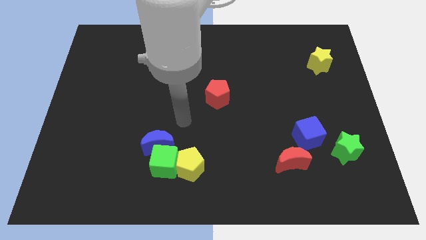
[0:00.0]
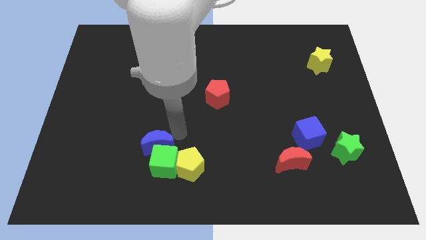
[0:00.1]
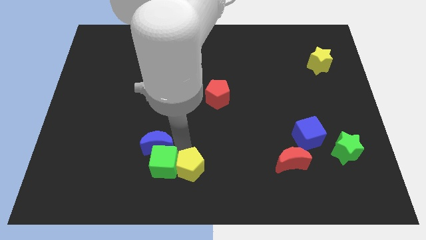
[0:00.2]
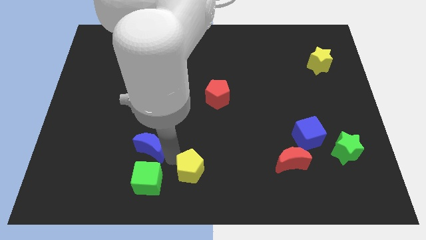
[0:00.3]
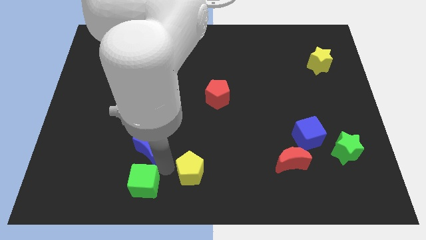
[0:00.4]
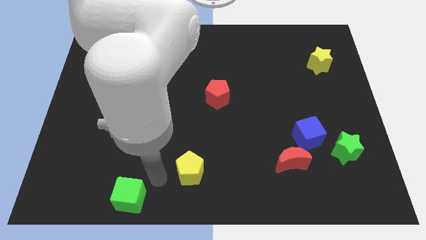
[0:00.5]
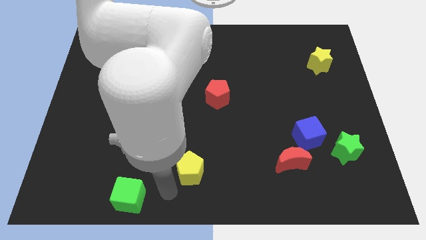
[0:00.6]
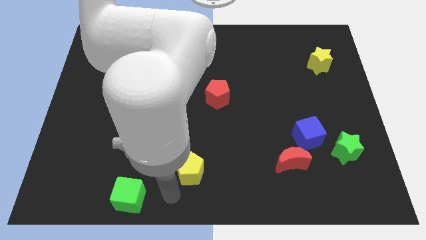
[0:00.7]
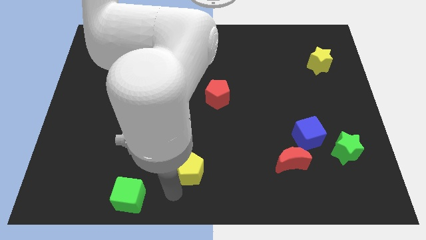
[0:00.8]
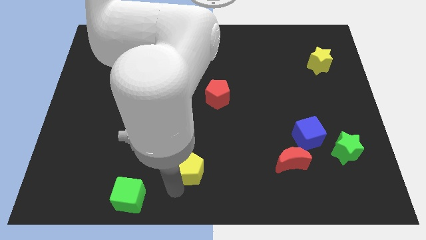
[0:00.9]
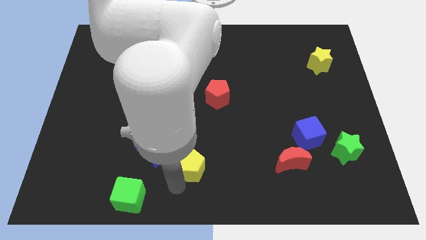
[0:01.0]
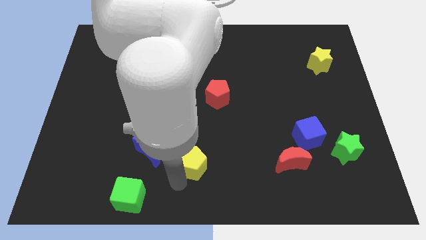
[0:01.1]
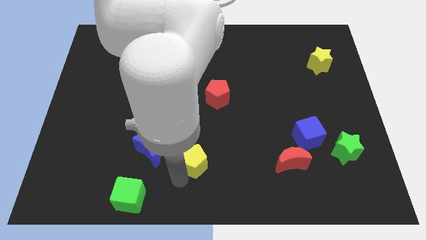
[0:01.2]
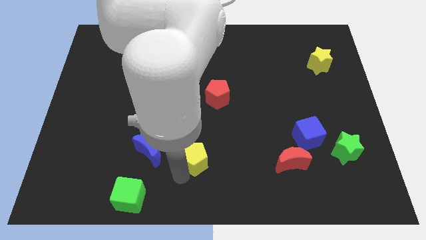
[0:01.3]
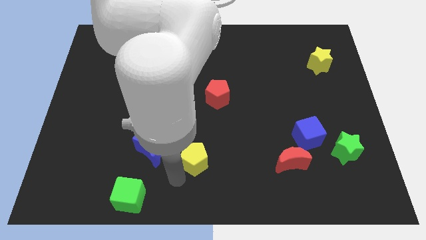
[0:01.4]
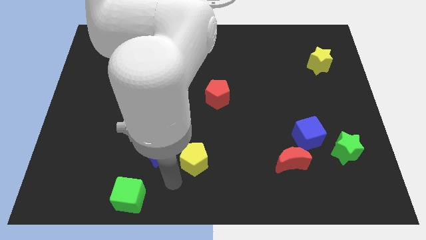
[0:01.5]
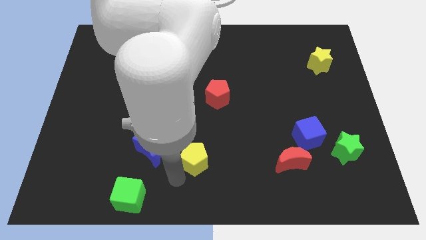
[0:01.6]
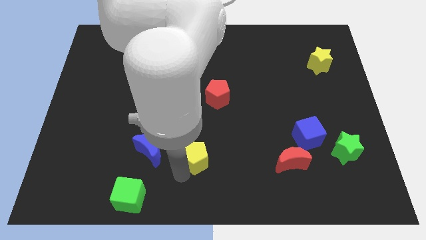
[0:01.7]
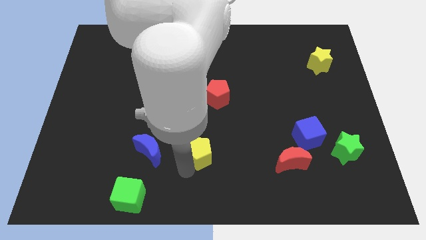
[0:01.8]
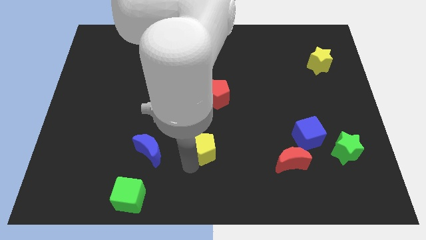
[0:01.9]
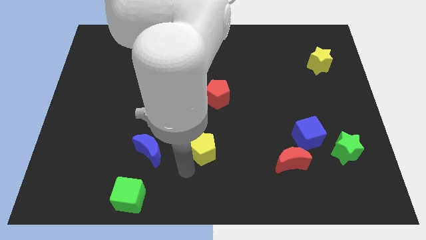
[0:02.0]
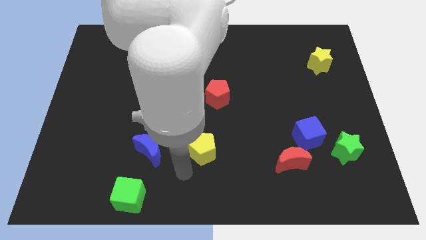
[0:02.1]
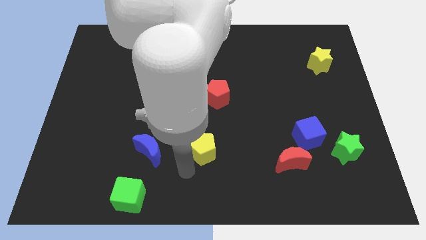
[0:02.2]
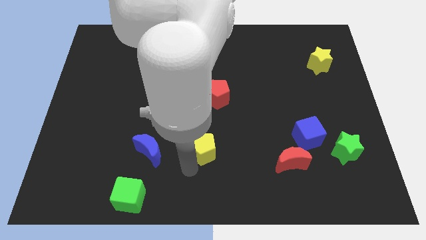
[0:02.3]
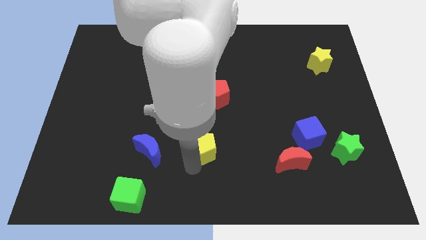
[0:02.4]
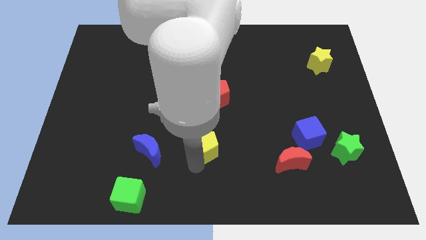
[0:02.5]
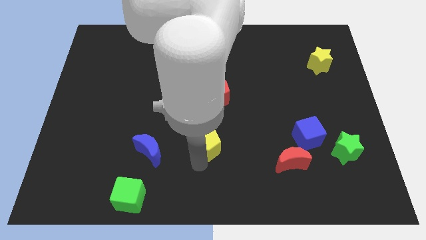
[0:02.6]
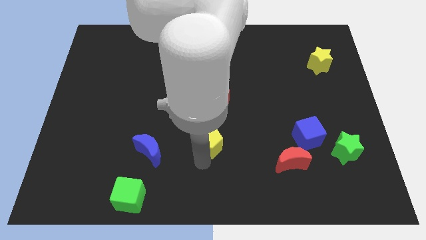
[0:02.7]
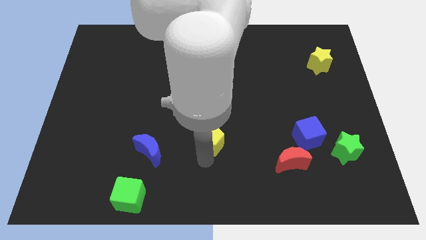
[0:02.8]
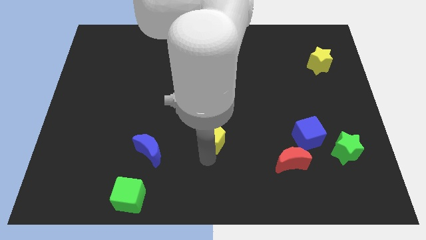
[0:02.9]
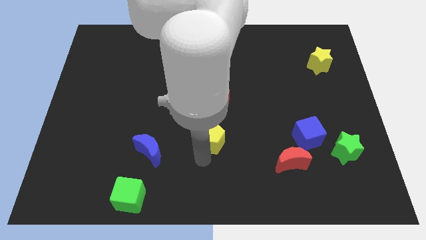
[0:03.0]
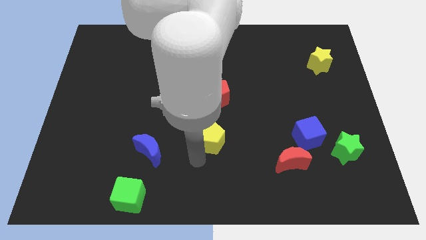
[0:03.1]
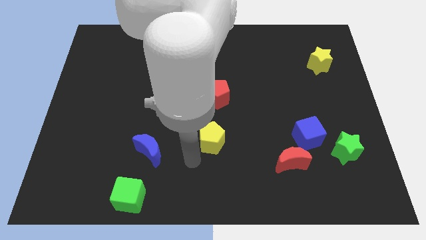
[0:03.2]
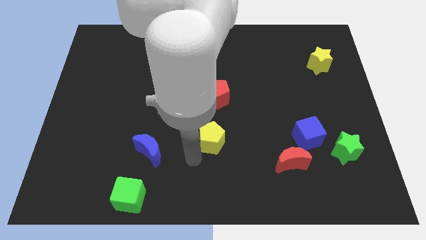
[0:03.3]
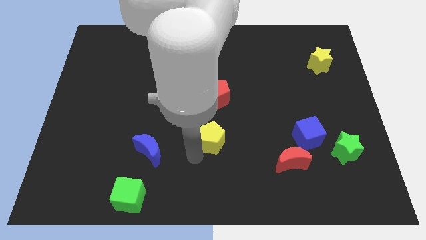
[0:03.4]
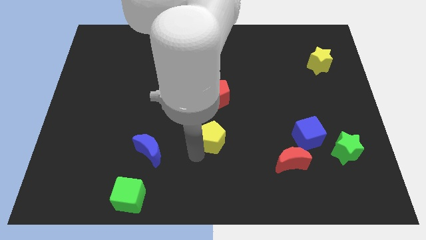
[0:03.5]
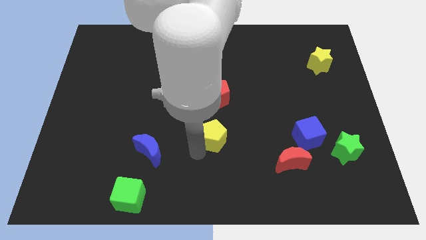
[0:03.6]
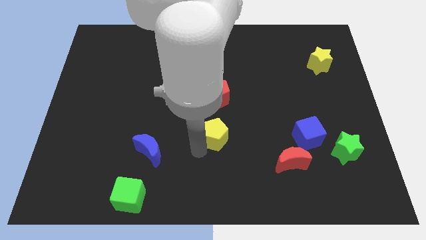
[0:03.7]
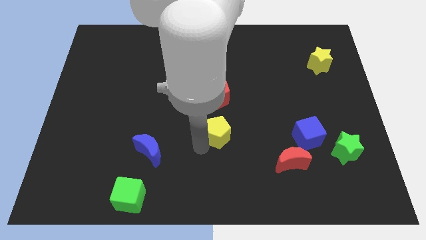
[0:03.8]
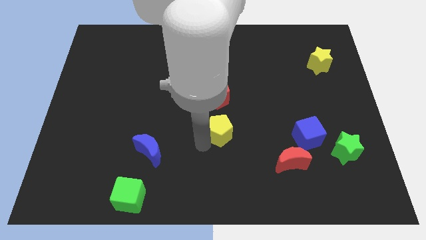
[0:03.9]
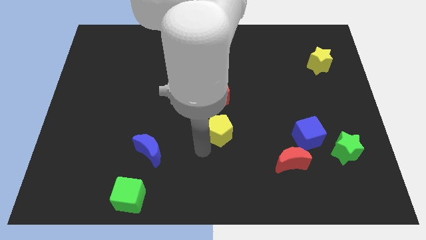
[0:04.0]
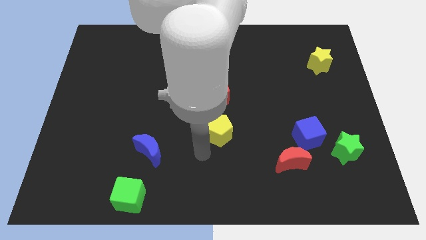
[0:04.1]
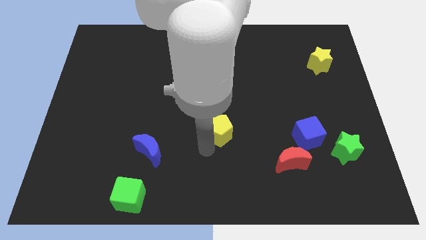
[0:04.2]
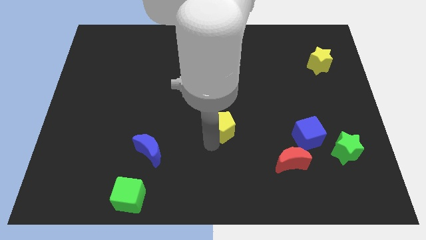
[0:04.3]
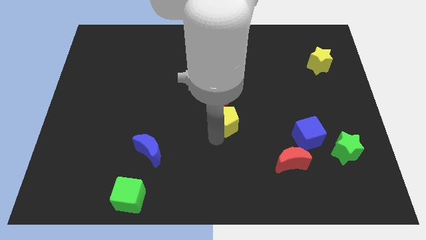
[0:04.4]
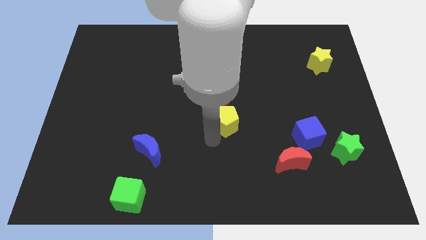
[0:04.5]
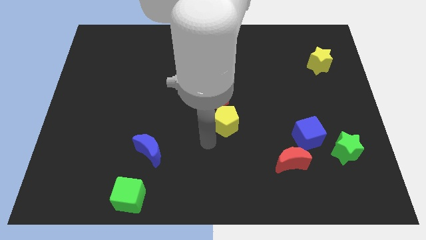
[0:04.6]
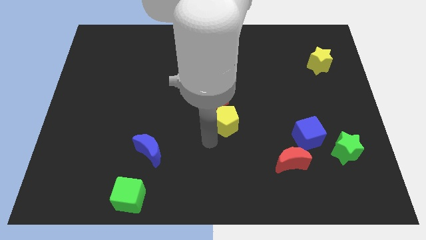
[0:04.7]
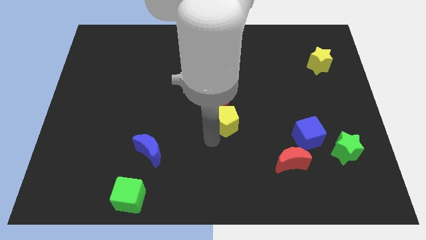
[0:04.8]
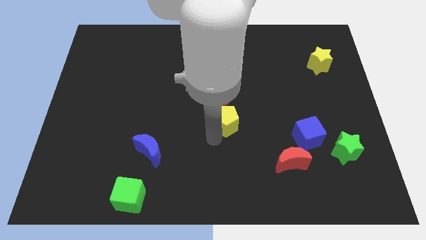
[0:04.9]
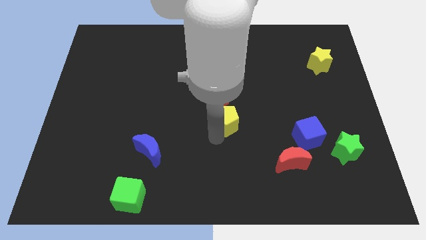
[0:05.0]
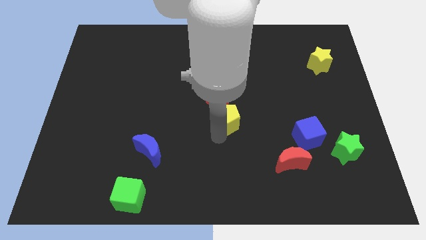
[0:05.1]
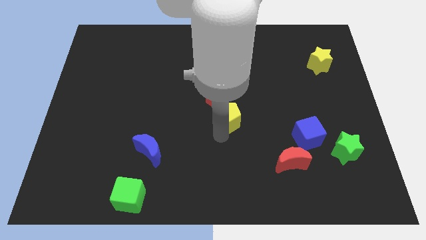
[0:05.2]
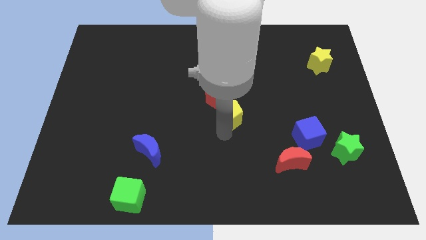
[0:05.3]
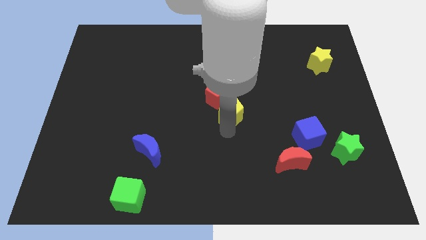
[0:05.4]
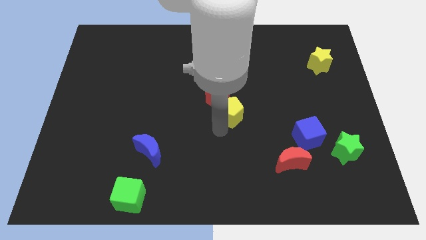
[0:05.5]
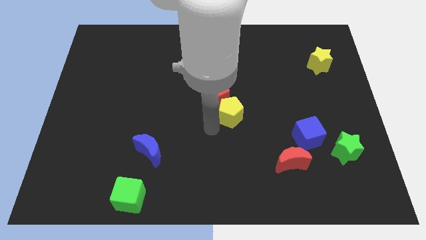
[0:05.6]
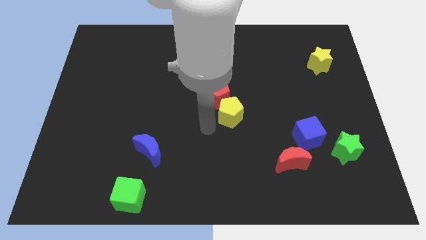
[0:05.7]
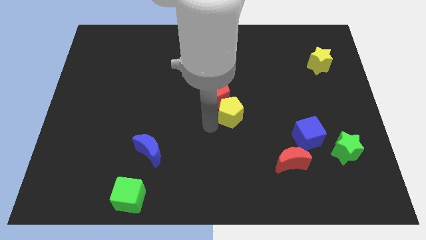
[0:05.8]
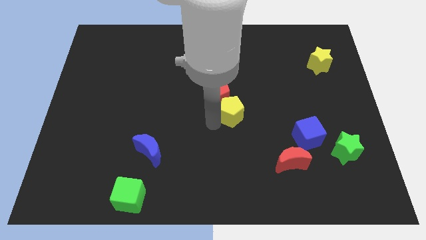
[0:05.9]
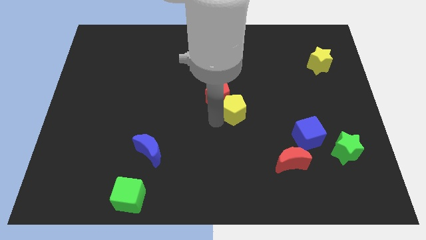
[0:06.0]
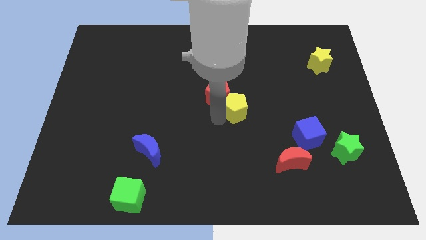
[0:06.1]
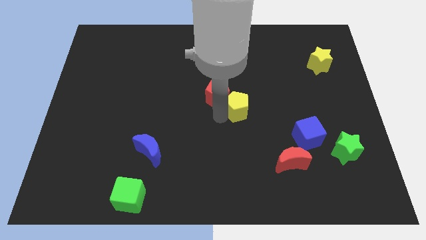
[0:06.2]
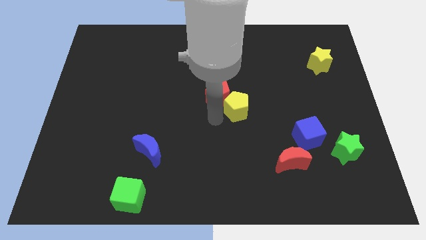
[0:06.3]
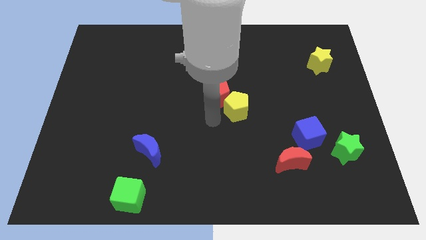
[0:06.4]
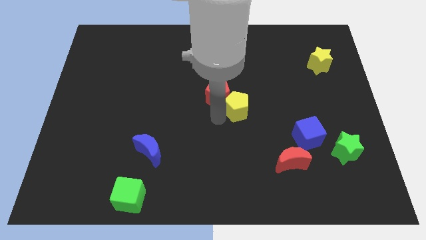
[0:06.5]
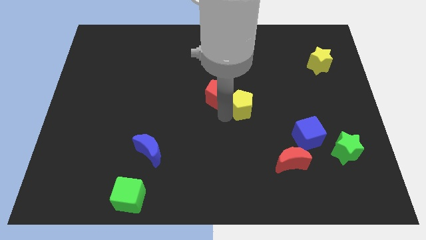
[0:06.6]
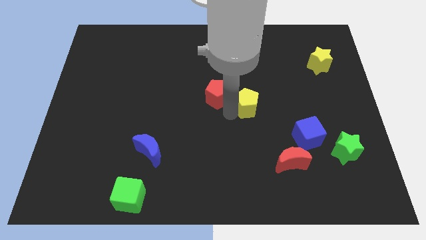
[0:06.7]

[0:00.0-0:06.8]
push the yellow pentagon upwards and to the right diagonally

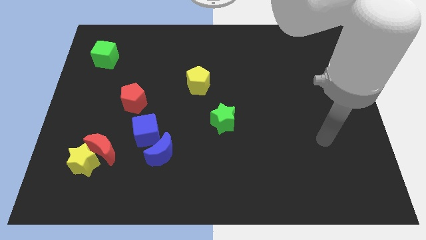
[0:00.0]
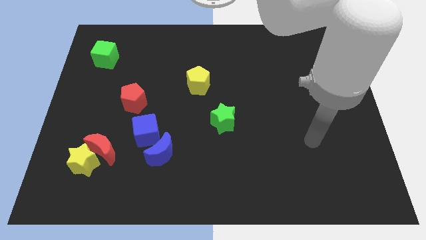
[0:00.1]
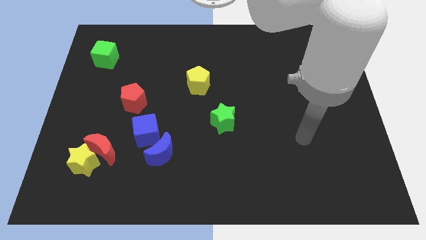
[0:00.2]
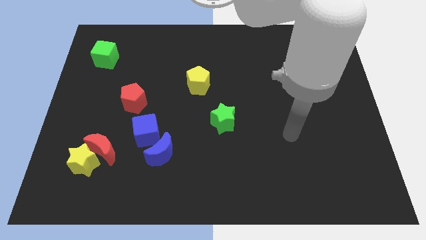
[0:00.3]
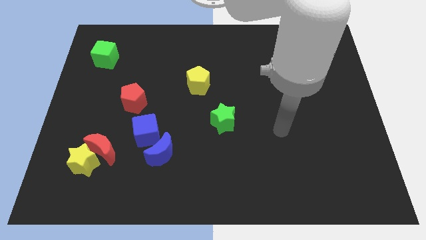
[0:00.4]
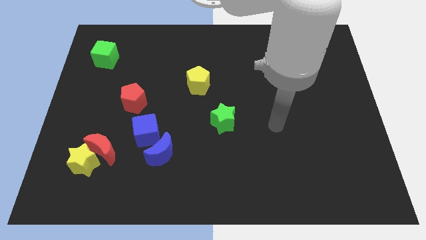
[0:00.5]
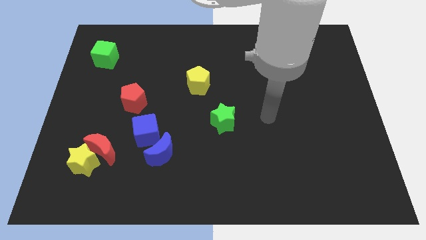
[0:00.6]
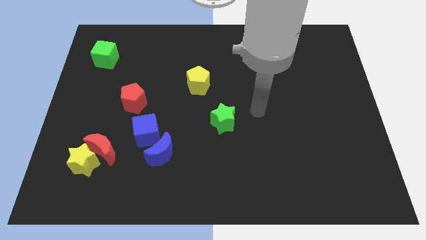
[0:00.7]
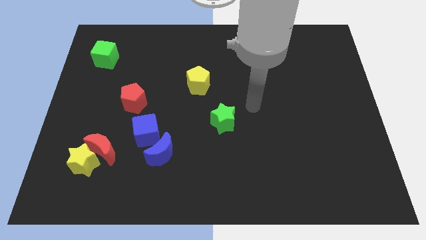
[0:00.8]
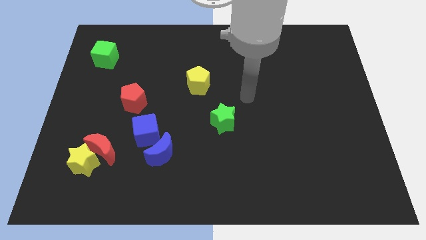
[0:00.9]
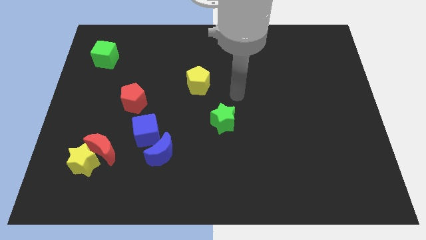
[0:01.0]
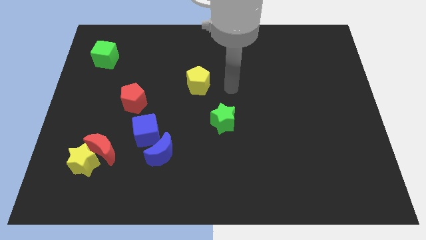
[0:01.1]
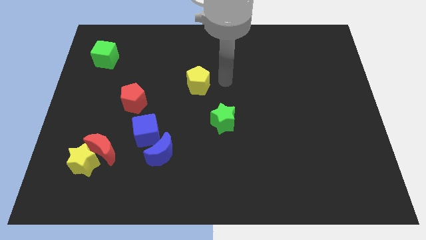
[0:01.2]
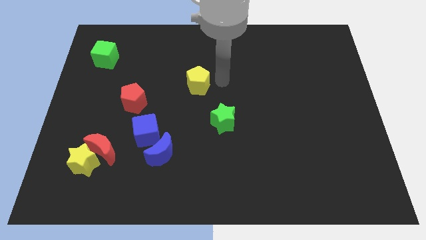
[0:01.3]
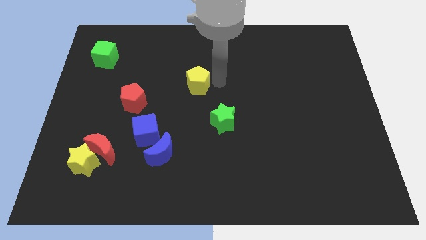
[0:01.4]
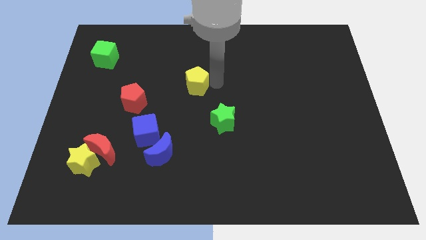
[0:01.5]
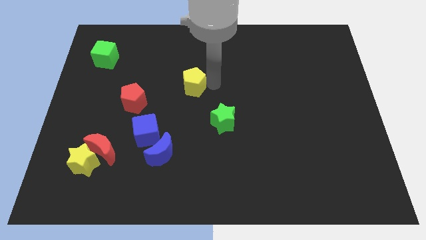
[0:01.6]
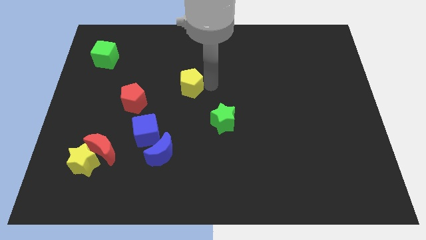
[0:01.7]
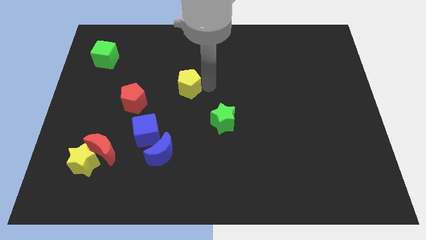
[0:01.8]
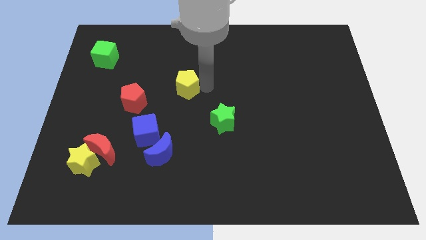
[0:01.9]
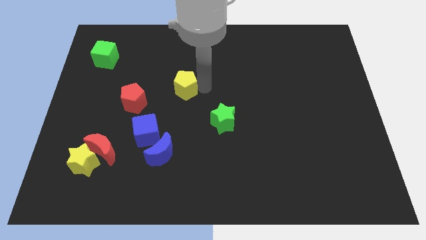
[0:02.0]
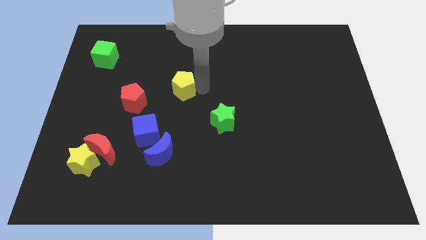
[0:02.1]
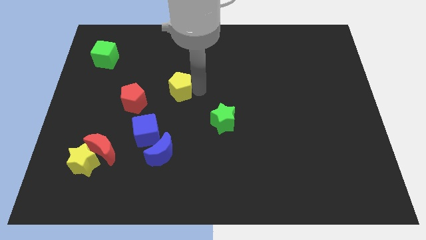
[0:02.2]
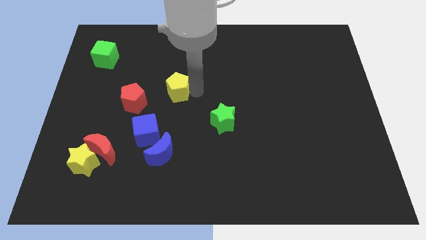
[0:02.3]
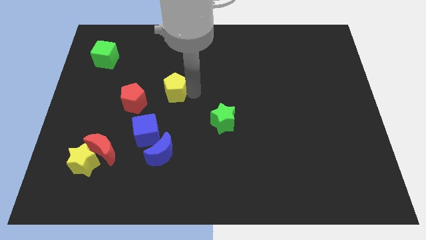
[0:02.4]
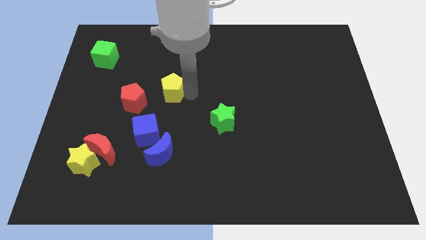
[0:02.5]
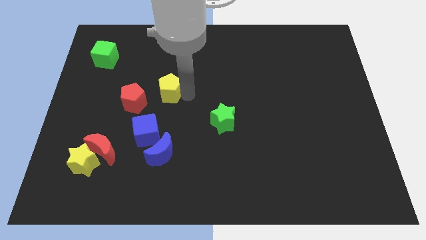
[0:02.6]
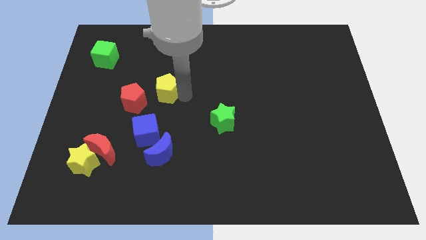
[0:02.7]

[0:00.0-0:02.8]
slightly push the yellow pentagon left
